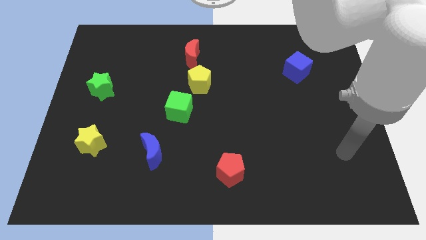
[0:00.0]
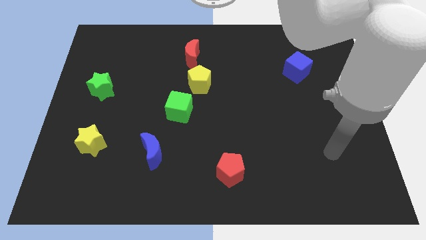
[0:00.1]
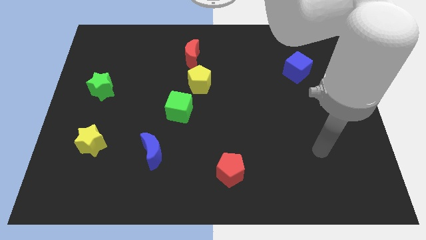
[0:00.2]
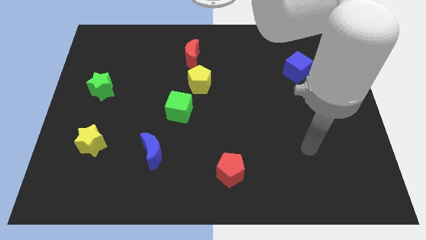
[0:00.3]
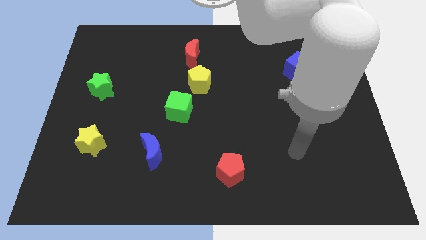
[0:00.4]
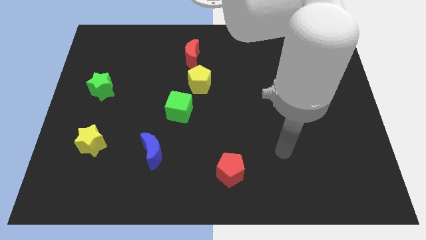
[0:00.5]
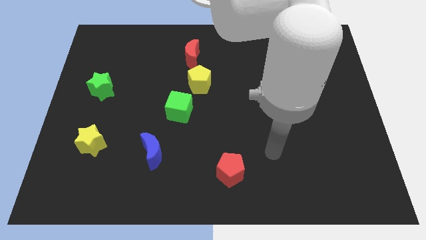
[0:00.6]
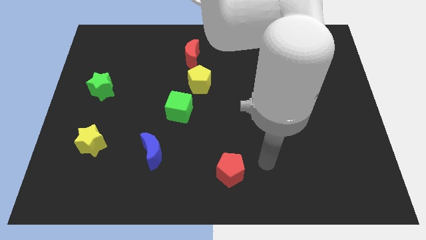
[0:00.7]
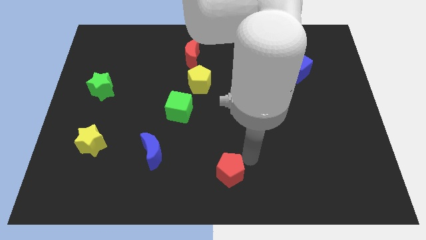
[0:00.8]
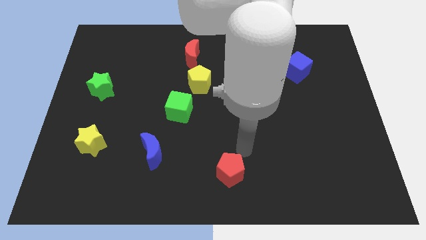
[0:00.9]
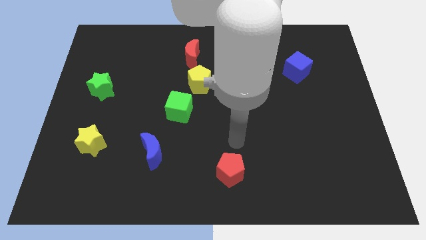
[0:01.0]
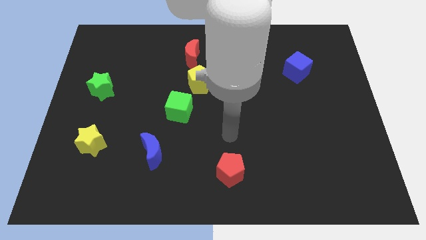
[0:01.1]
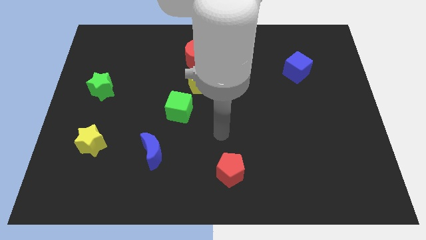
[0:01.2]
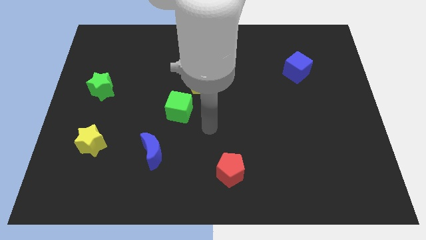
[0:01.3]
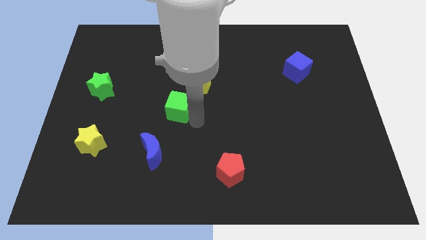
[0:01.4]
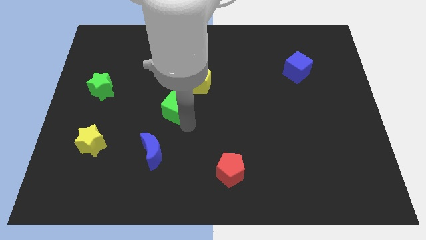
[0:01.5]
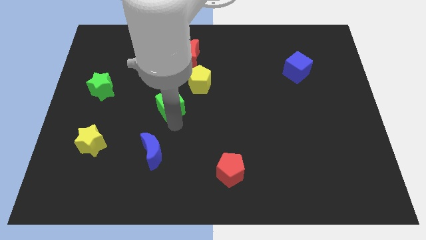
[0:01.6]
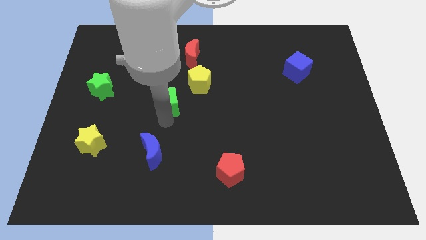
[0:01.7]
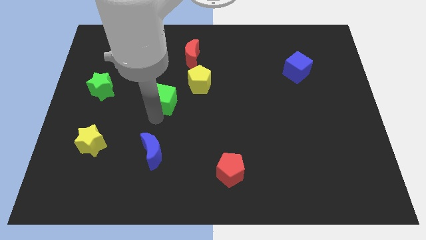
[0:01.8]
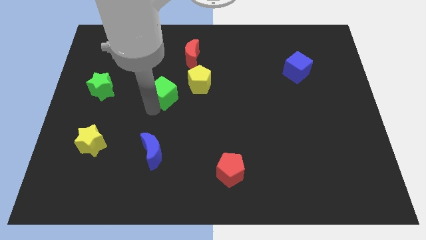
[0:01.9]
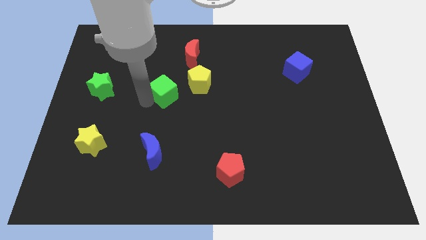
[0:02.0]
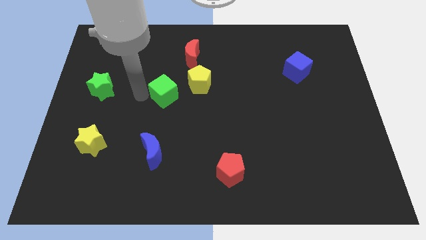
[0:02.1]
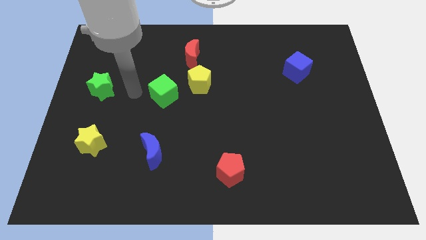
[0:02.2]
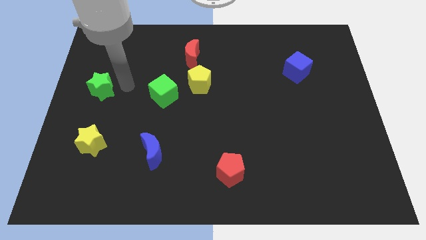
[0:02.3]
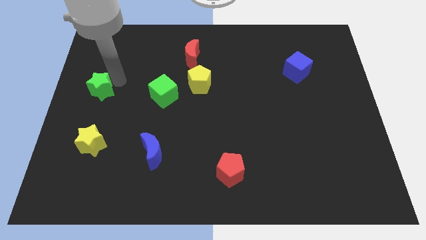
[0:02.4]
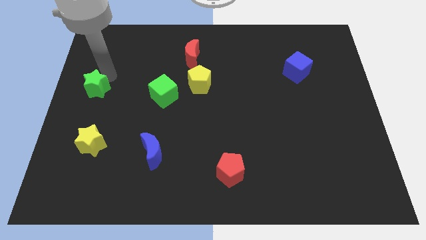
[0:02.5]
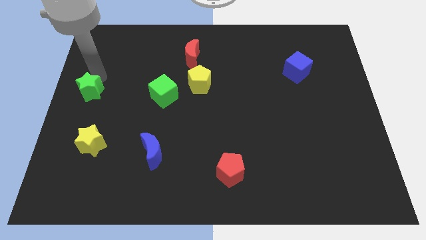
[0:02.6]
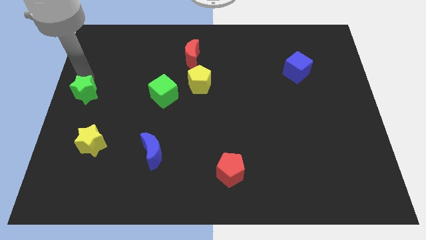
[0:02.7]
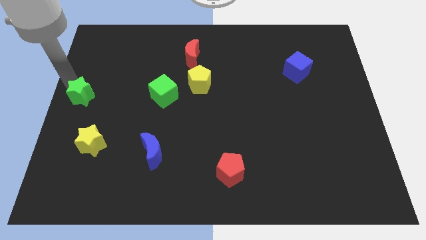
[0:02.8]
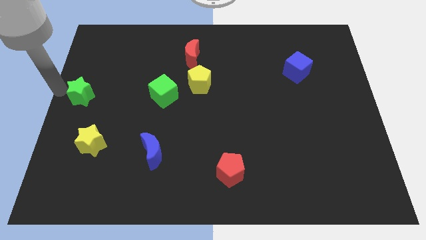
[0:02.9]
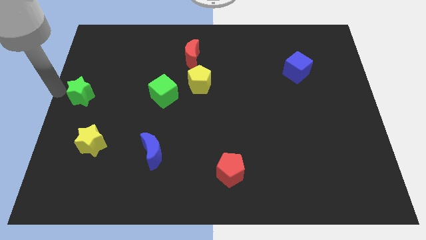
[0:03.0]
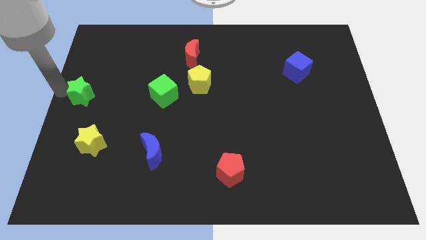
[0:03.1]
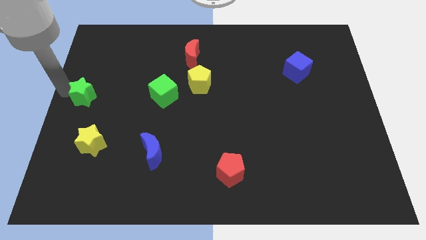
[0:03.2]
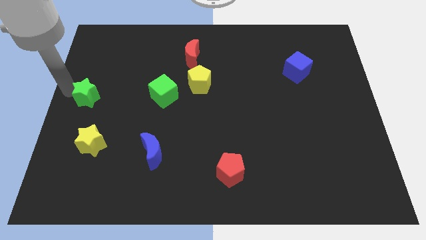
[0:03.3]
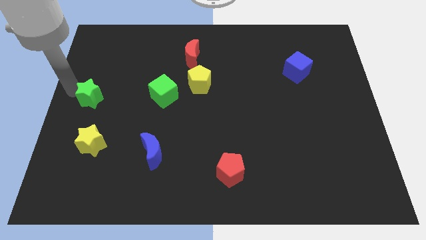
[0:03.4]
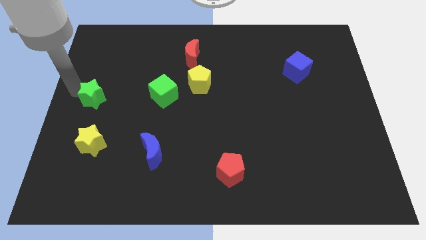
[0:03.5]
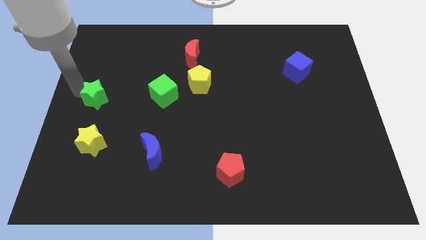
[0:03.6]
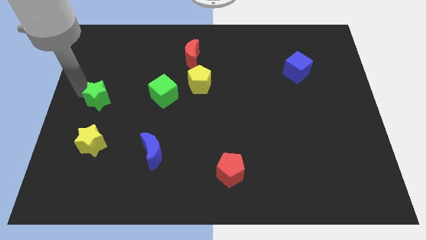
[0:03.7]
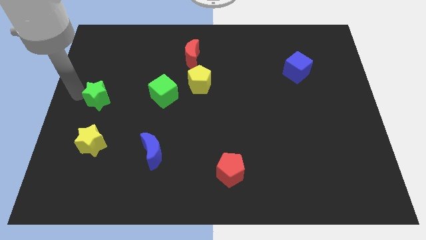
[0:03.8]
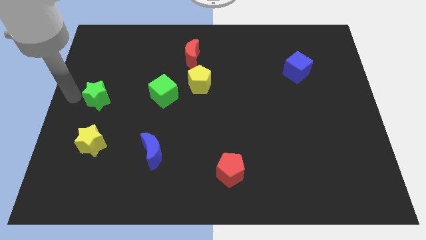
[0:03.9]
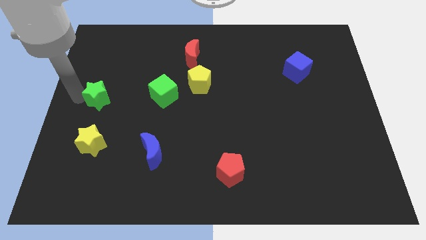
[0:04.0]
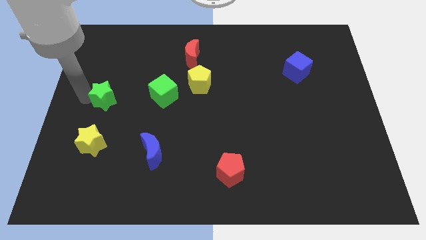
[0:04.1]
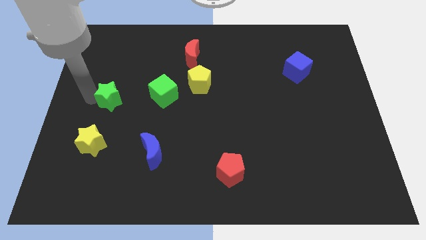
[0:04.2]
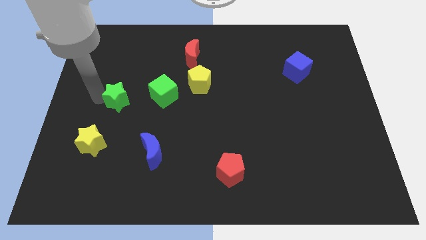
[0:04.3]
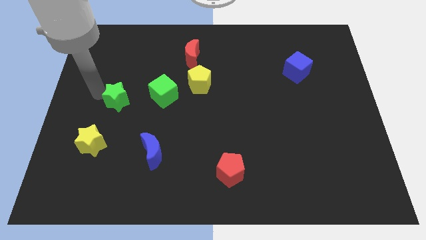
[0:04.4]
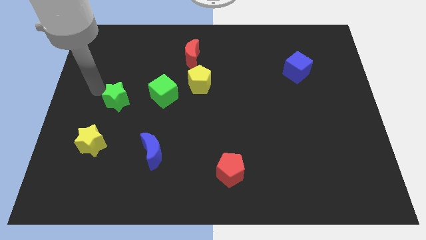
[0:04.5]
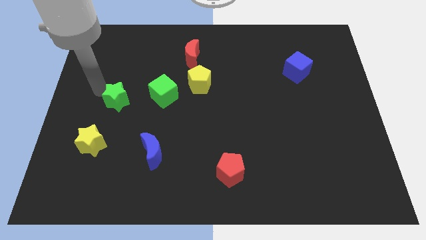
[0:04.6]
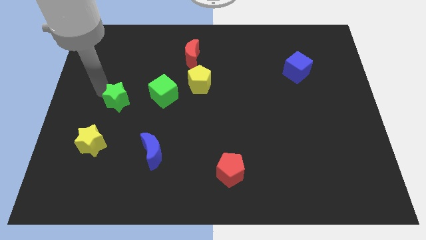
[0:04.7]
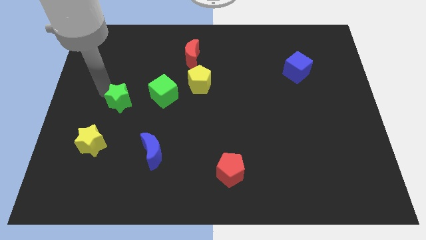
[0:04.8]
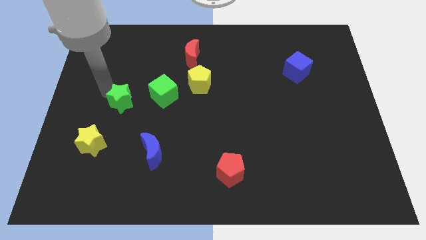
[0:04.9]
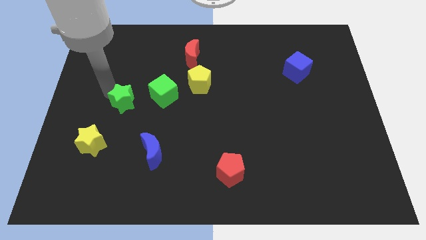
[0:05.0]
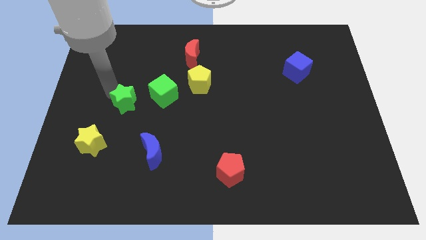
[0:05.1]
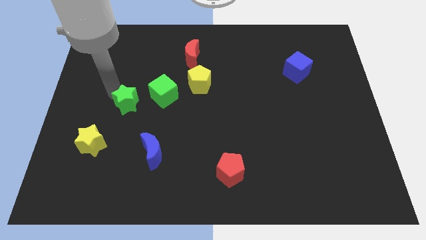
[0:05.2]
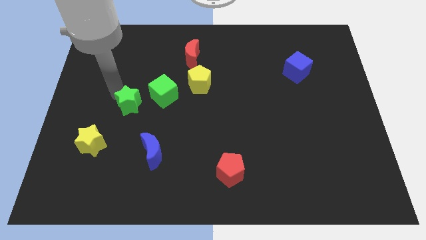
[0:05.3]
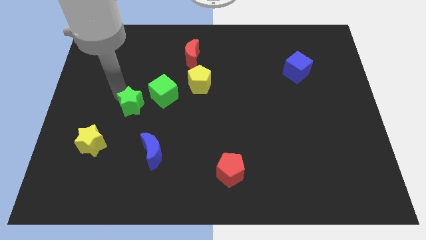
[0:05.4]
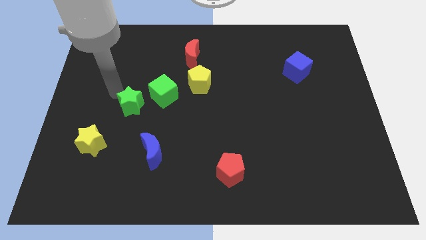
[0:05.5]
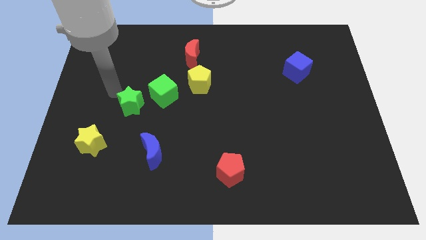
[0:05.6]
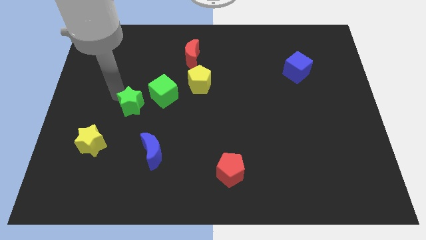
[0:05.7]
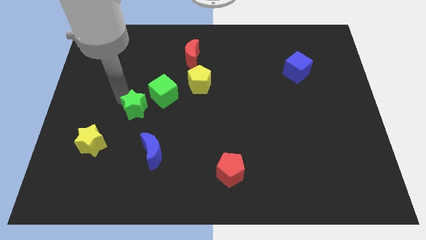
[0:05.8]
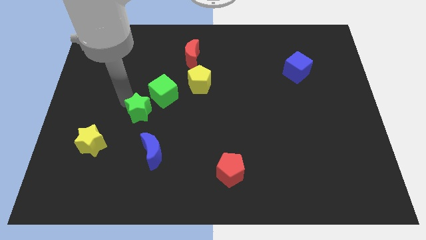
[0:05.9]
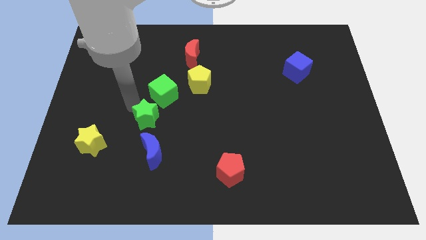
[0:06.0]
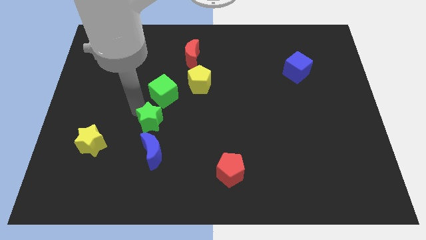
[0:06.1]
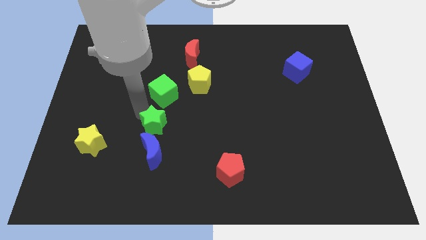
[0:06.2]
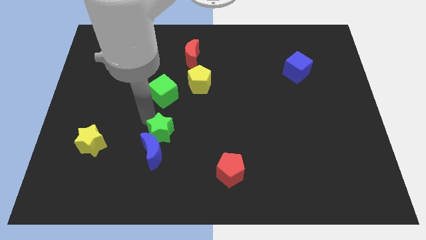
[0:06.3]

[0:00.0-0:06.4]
slide the green star down and to the right diagonally

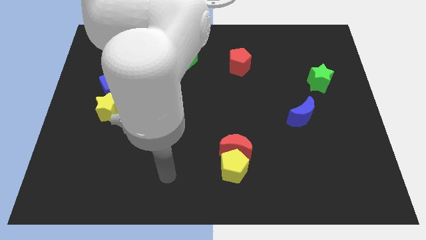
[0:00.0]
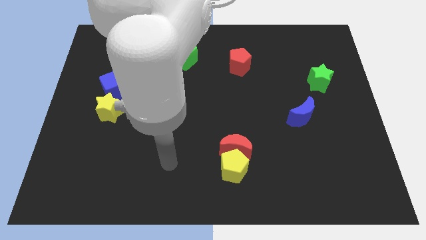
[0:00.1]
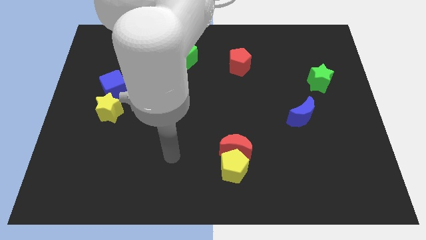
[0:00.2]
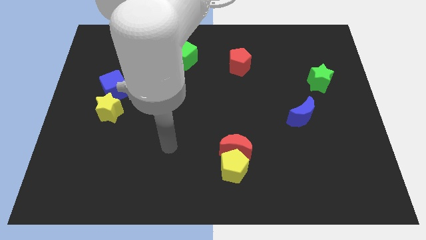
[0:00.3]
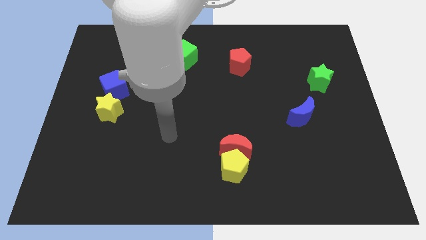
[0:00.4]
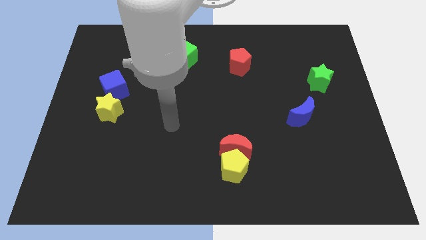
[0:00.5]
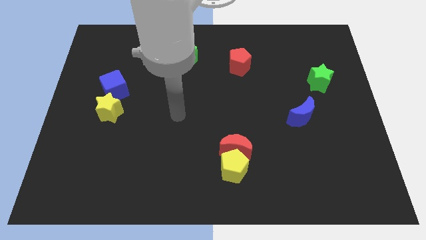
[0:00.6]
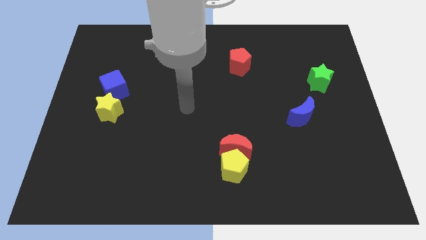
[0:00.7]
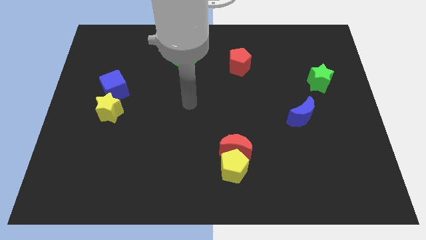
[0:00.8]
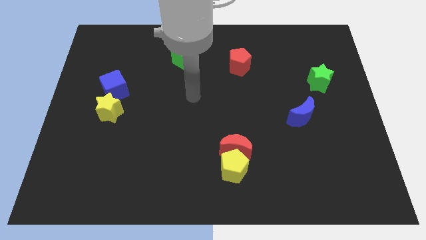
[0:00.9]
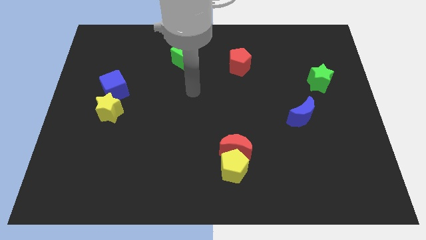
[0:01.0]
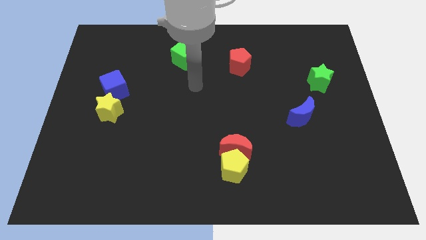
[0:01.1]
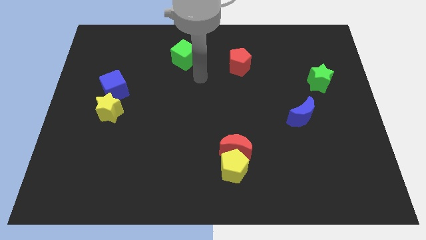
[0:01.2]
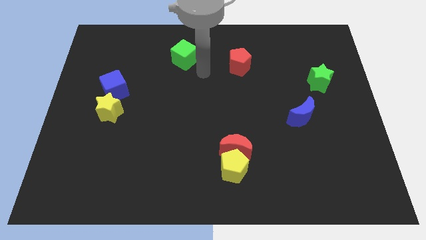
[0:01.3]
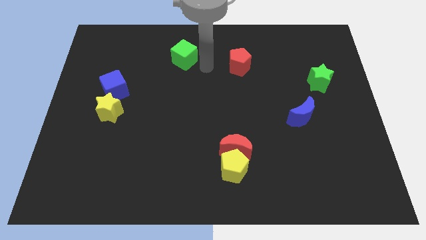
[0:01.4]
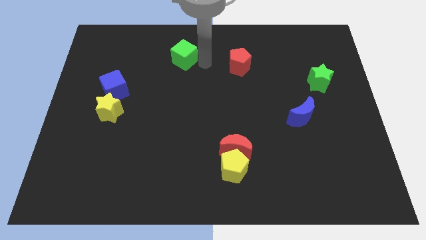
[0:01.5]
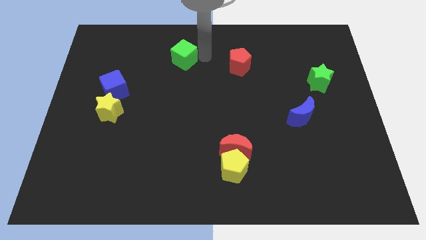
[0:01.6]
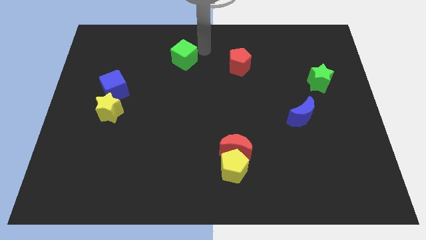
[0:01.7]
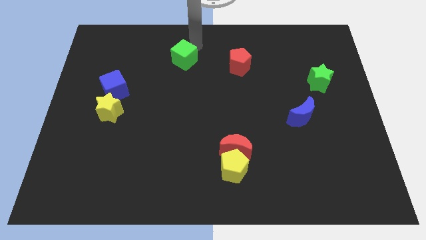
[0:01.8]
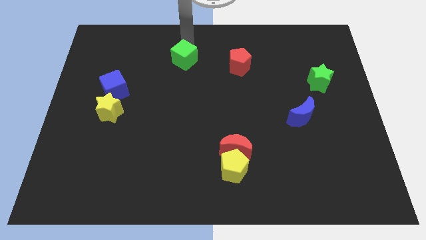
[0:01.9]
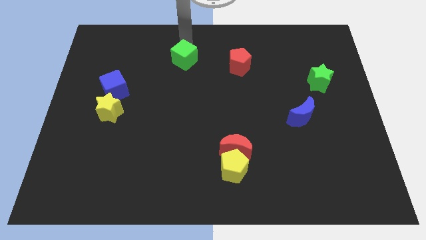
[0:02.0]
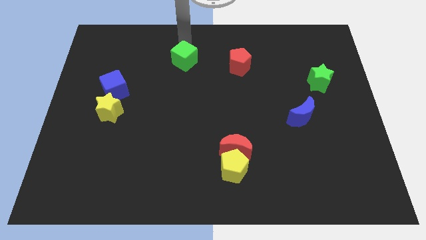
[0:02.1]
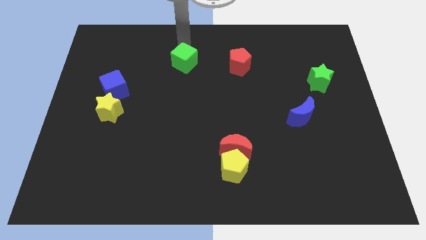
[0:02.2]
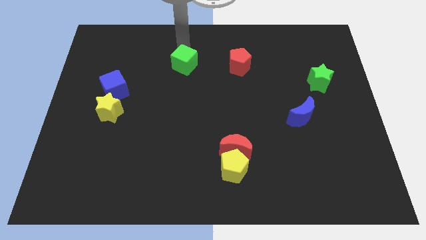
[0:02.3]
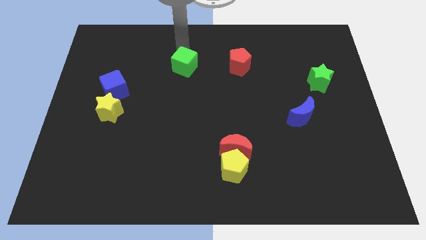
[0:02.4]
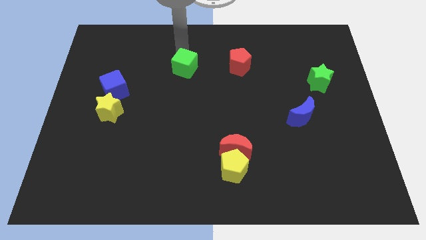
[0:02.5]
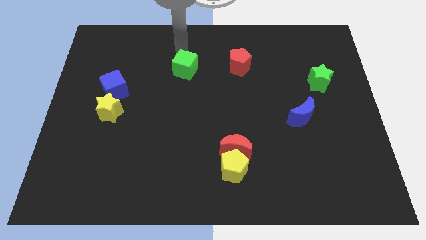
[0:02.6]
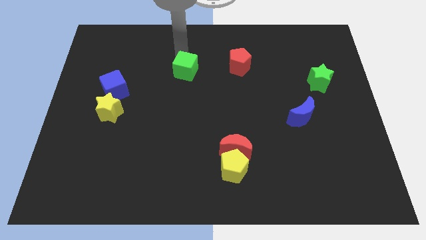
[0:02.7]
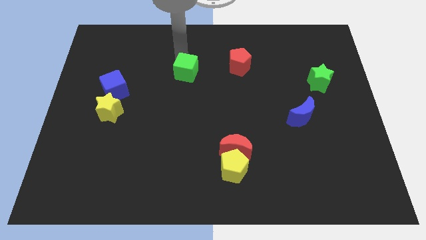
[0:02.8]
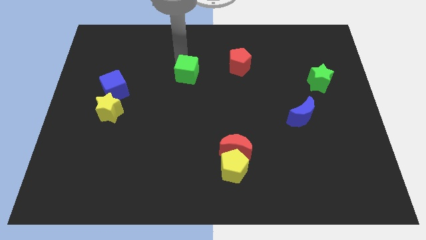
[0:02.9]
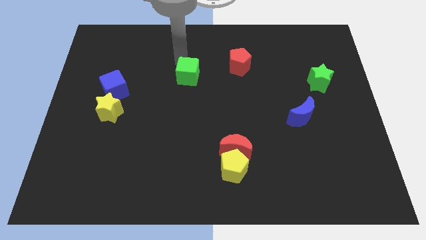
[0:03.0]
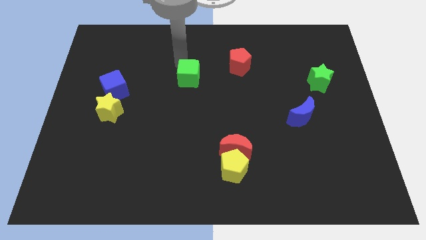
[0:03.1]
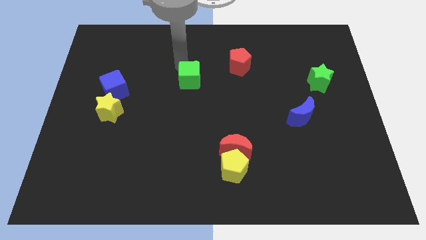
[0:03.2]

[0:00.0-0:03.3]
push the green cube down slightly
